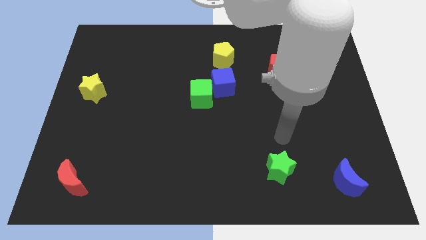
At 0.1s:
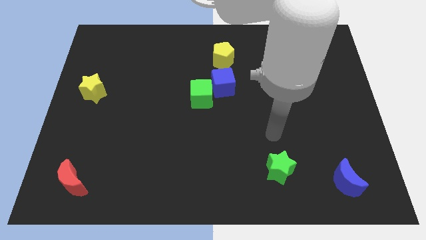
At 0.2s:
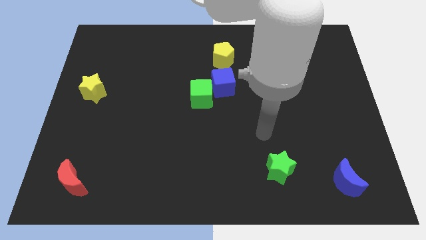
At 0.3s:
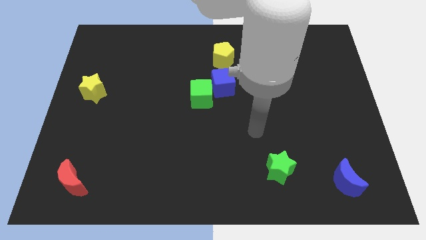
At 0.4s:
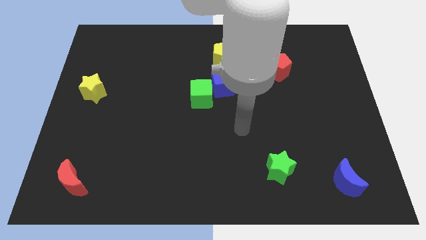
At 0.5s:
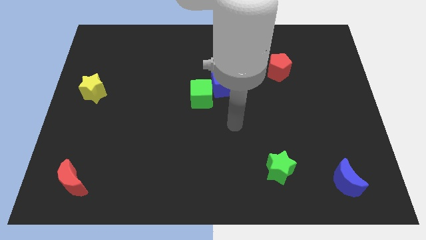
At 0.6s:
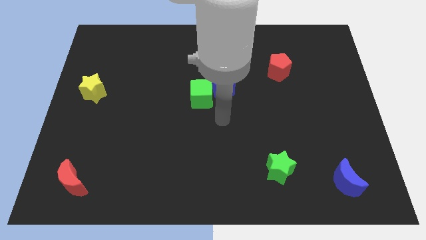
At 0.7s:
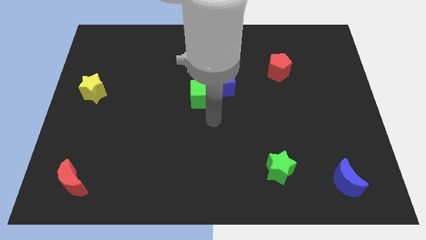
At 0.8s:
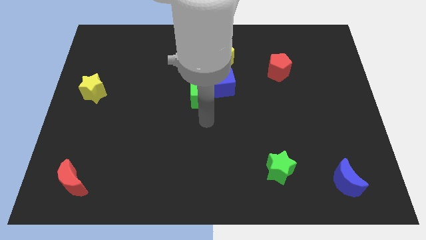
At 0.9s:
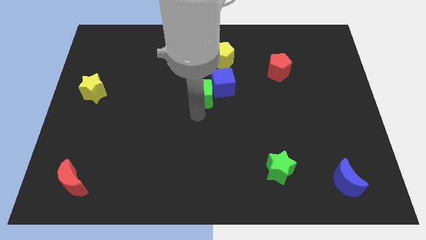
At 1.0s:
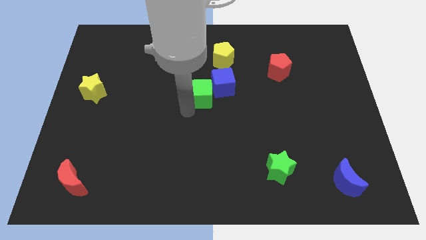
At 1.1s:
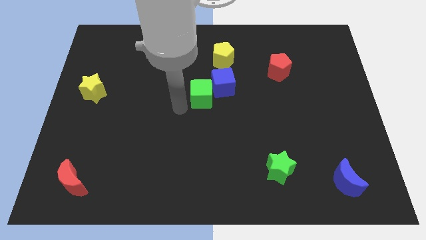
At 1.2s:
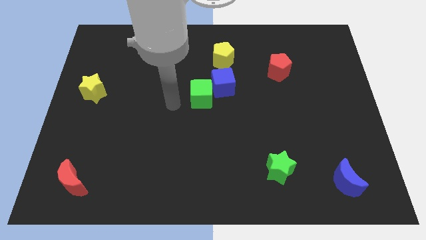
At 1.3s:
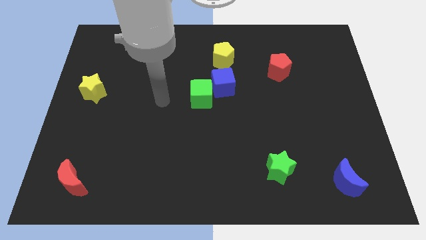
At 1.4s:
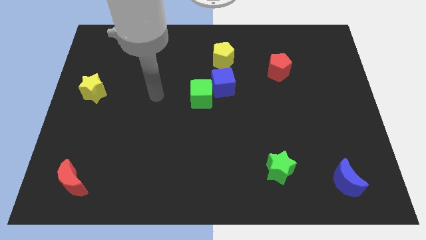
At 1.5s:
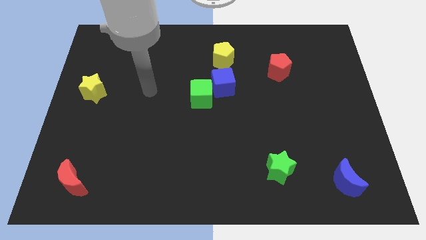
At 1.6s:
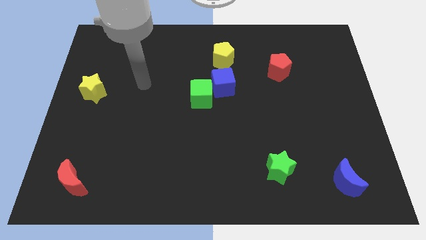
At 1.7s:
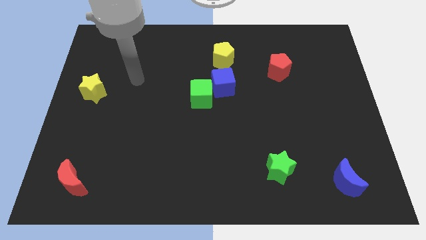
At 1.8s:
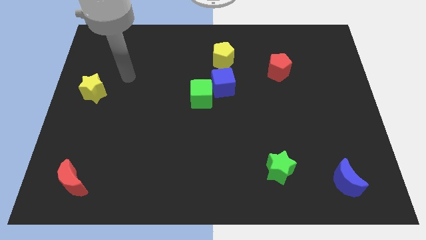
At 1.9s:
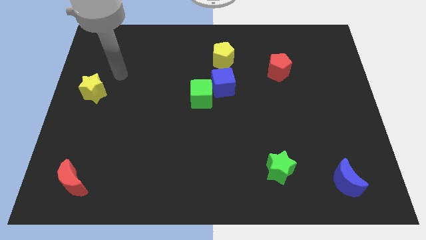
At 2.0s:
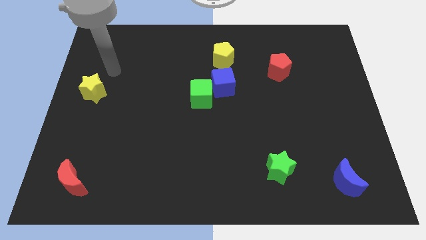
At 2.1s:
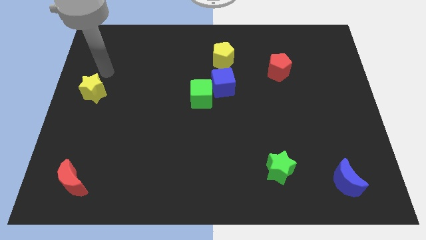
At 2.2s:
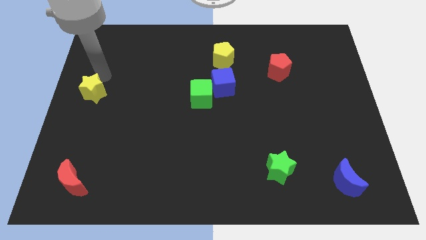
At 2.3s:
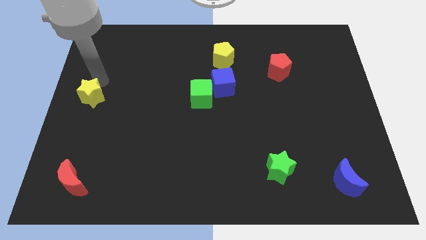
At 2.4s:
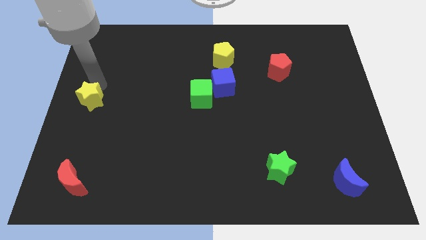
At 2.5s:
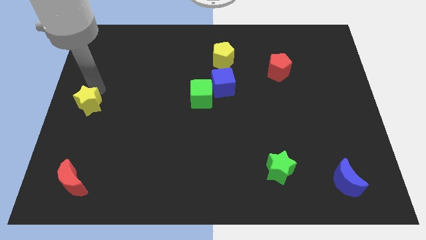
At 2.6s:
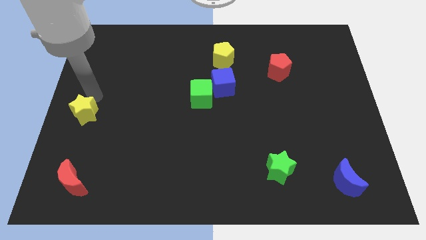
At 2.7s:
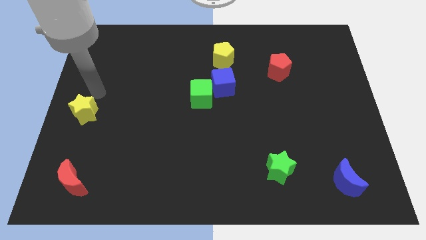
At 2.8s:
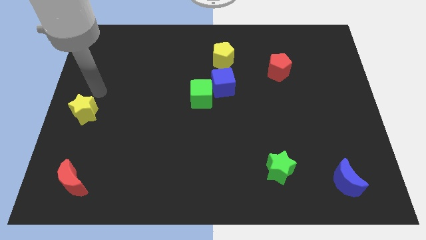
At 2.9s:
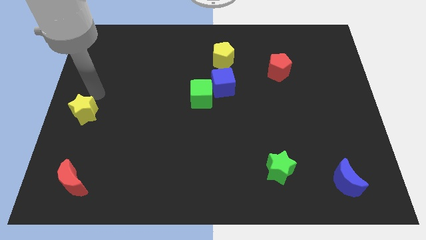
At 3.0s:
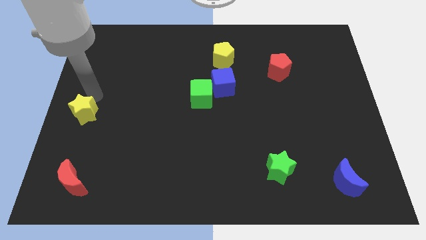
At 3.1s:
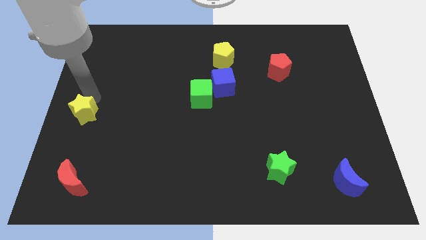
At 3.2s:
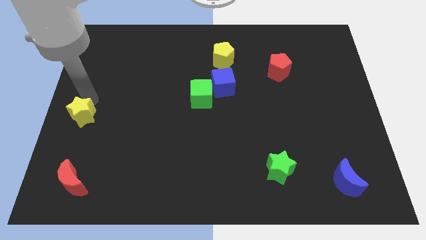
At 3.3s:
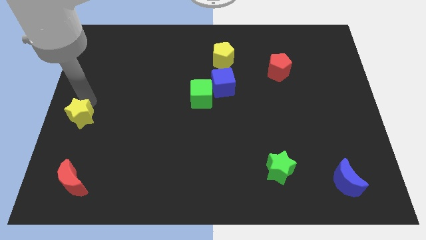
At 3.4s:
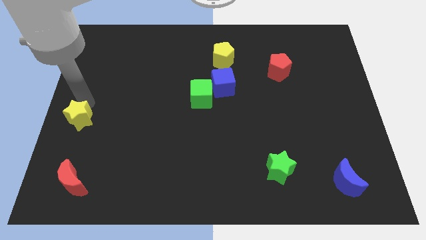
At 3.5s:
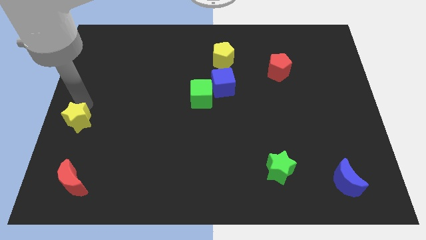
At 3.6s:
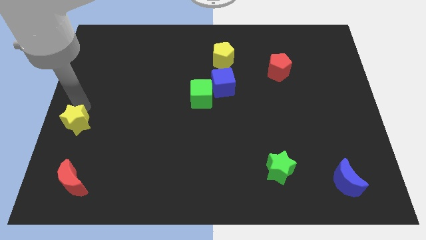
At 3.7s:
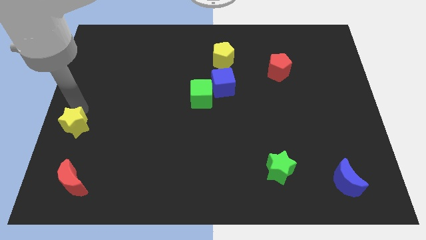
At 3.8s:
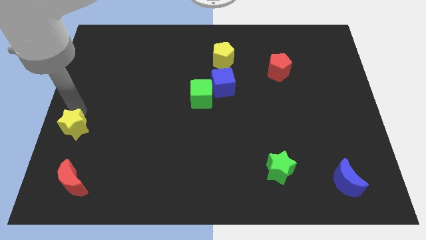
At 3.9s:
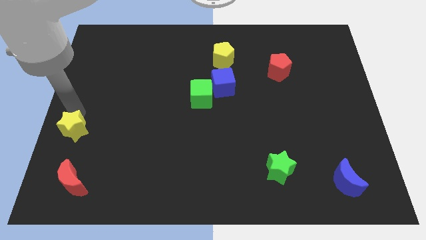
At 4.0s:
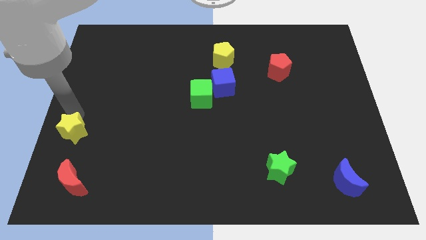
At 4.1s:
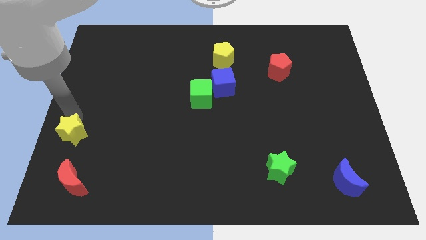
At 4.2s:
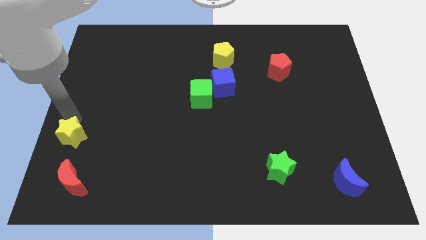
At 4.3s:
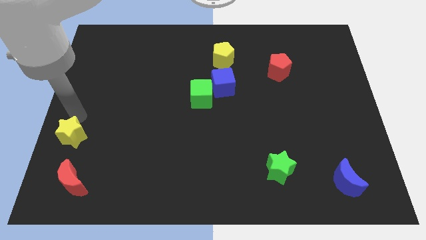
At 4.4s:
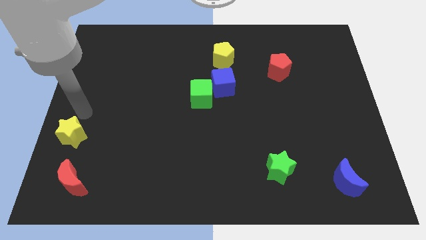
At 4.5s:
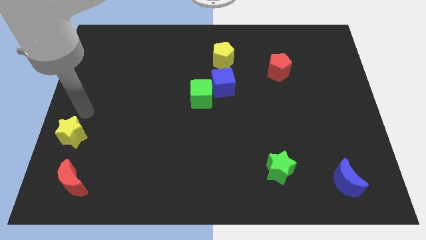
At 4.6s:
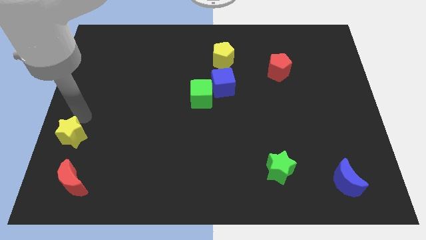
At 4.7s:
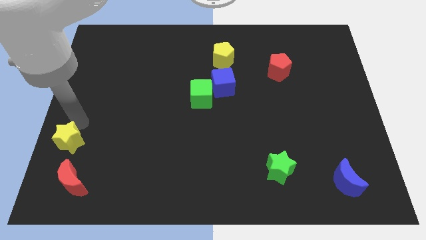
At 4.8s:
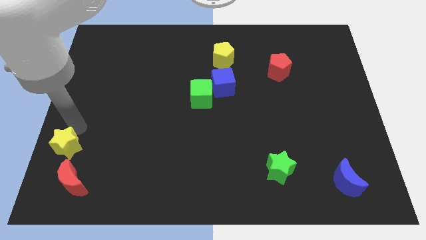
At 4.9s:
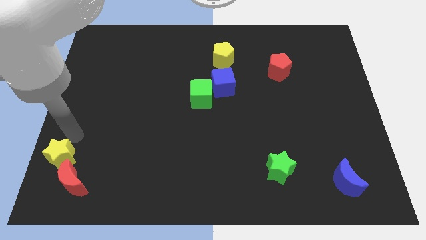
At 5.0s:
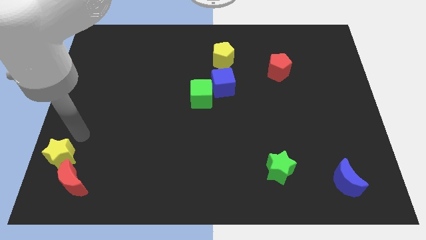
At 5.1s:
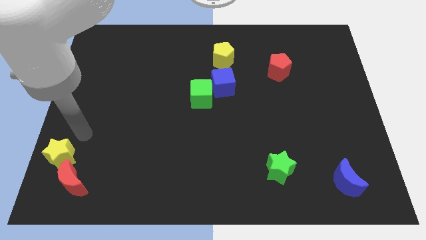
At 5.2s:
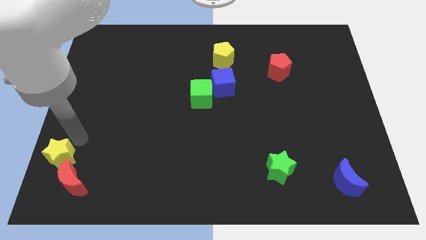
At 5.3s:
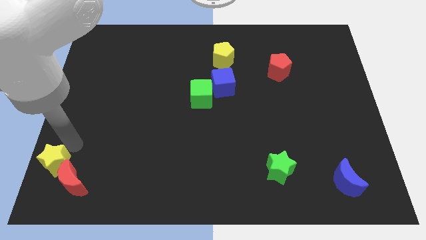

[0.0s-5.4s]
push the yellow star to the bottom left of the board
